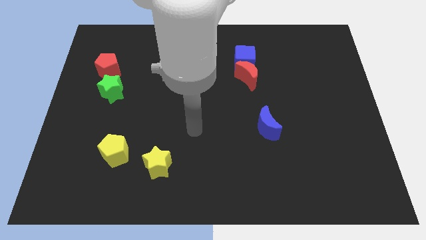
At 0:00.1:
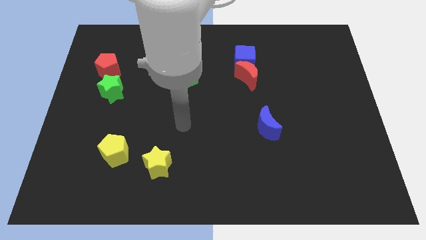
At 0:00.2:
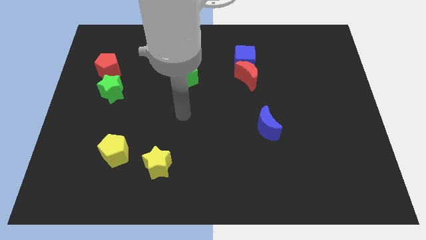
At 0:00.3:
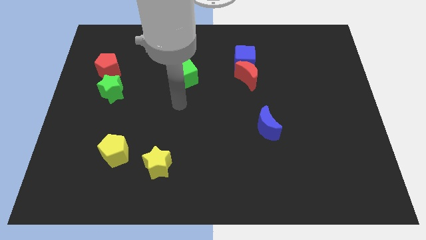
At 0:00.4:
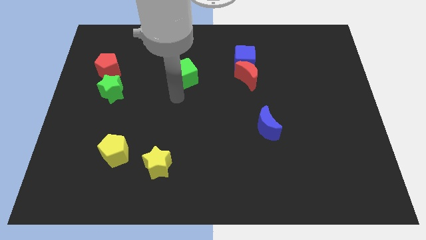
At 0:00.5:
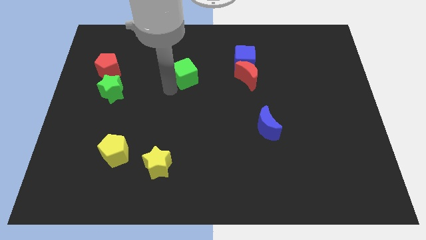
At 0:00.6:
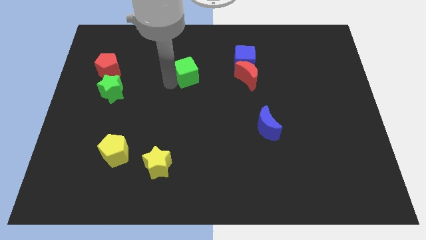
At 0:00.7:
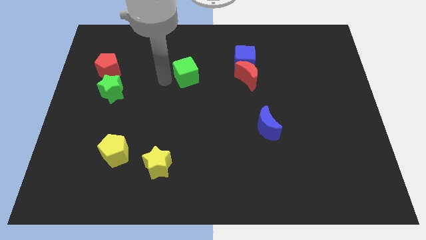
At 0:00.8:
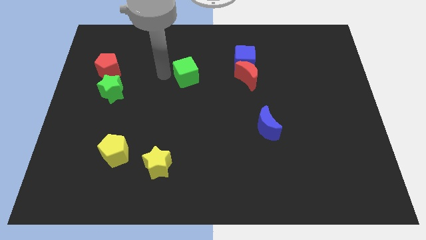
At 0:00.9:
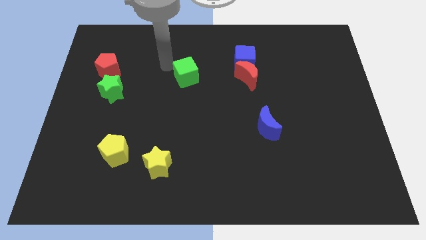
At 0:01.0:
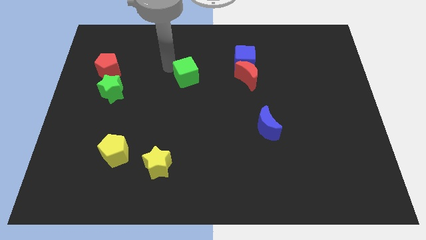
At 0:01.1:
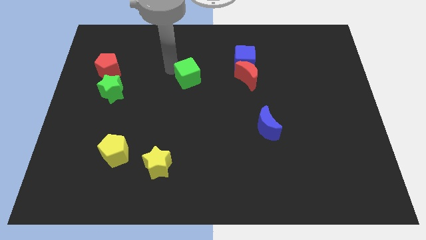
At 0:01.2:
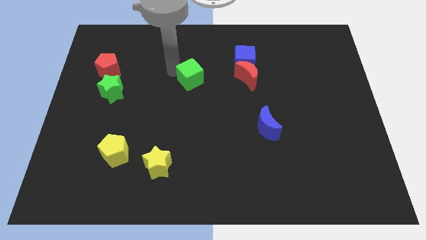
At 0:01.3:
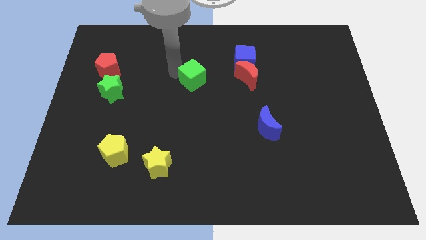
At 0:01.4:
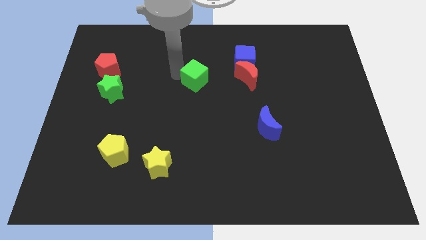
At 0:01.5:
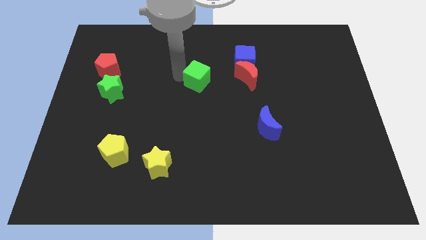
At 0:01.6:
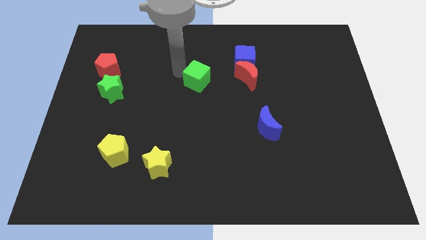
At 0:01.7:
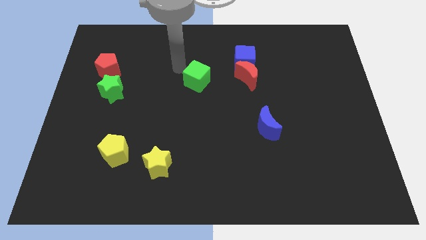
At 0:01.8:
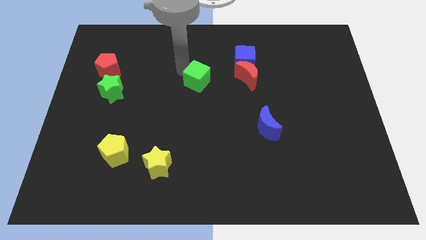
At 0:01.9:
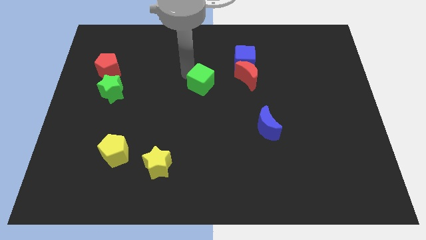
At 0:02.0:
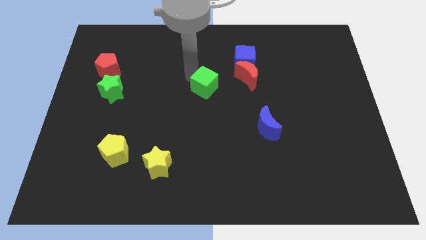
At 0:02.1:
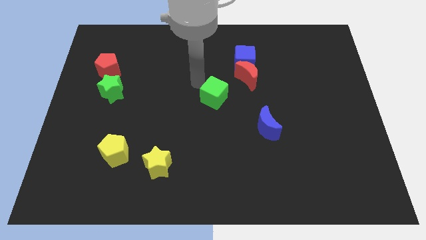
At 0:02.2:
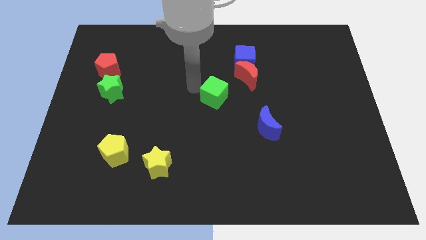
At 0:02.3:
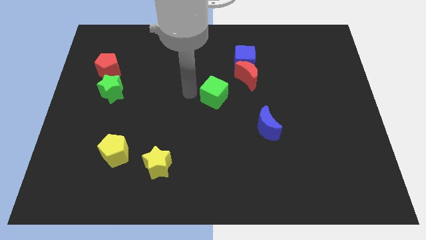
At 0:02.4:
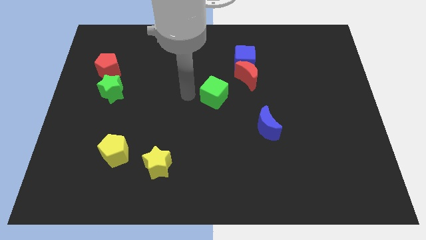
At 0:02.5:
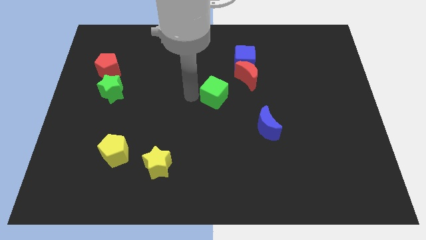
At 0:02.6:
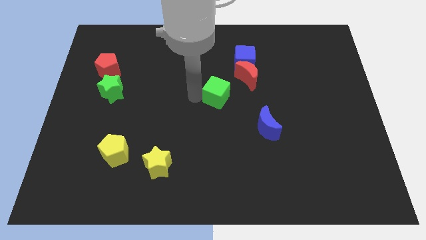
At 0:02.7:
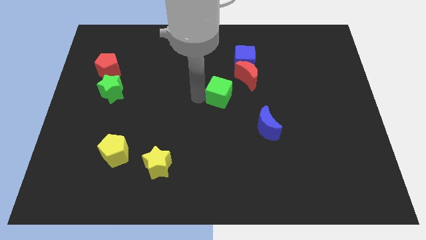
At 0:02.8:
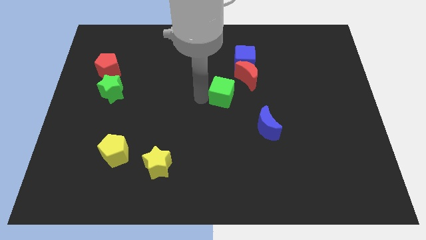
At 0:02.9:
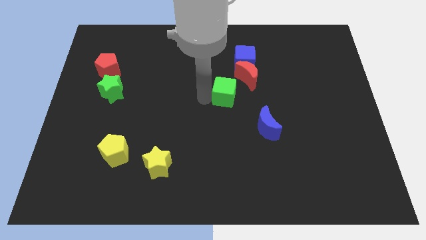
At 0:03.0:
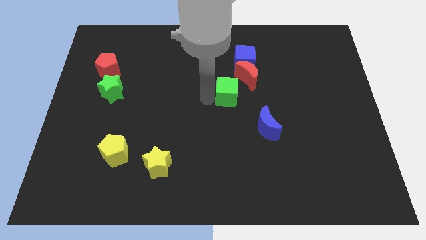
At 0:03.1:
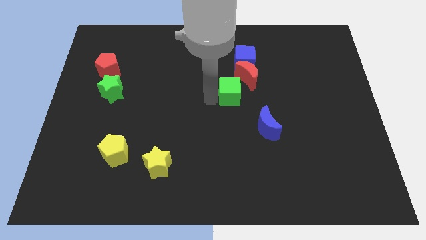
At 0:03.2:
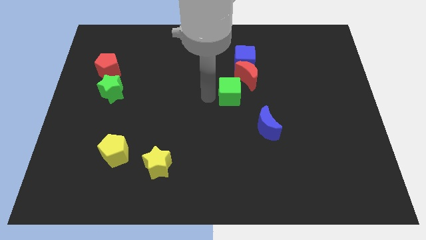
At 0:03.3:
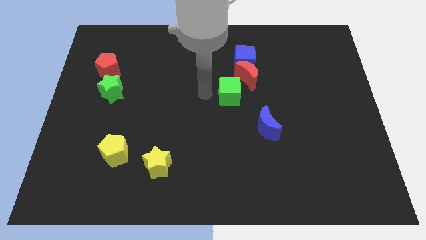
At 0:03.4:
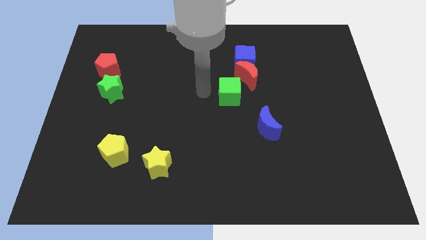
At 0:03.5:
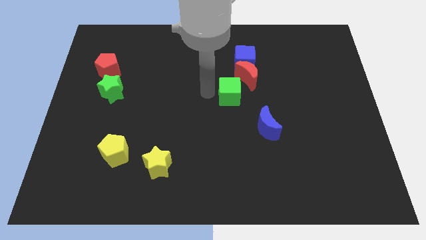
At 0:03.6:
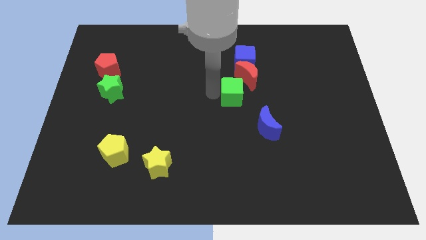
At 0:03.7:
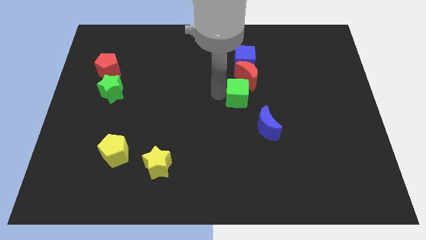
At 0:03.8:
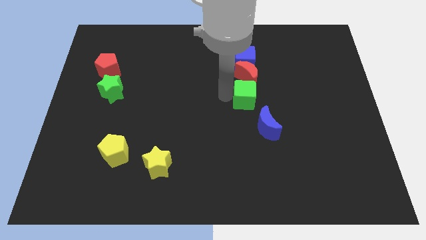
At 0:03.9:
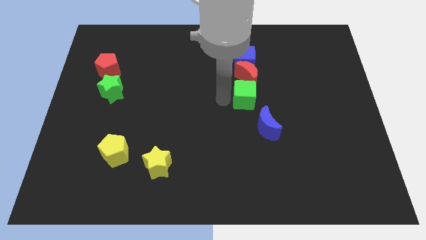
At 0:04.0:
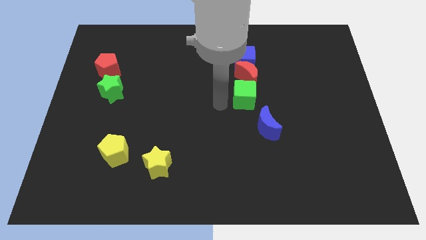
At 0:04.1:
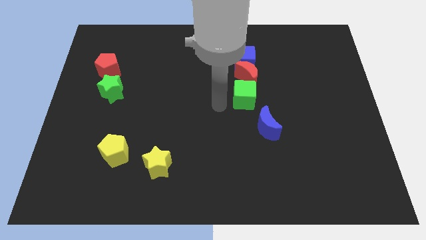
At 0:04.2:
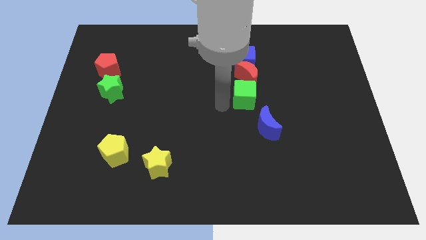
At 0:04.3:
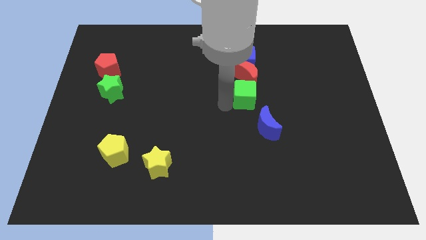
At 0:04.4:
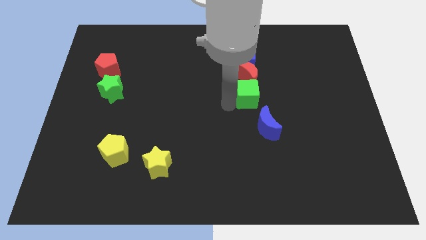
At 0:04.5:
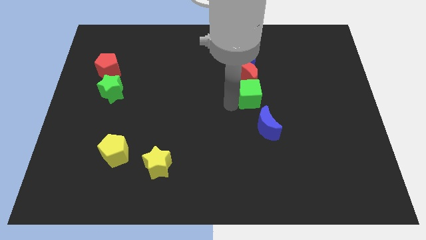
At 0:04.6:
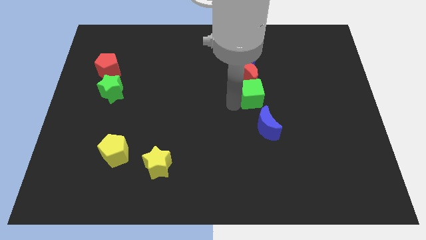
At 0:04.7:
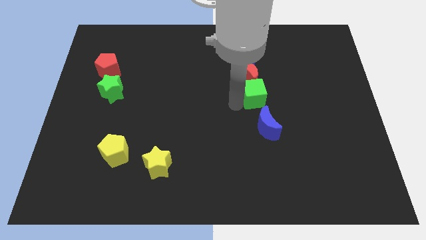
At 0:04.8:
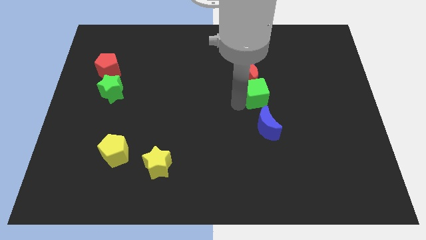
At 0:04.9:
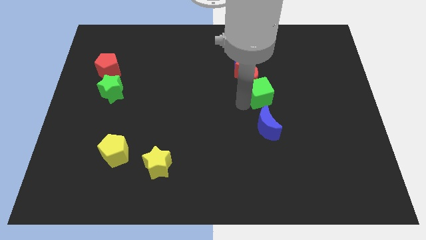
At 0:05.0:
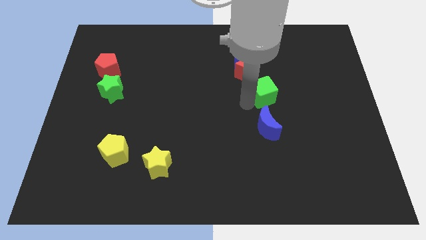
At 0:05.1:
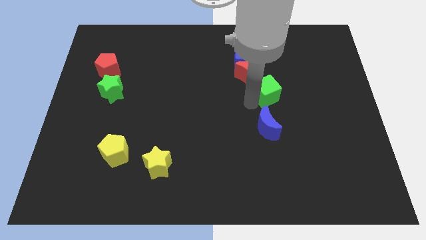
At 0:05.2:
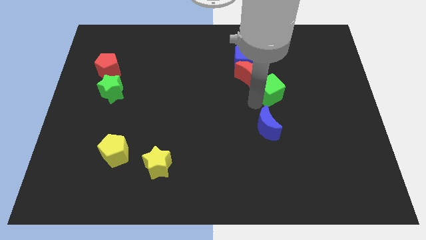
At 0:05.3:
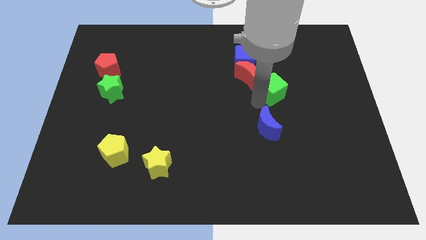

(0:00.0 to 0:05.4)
slide the green cube just right of the red moon

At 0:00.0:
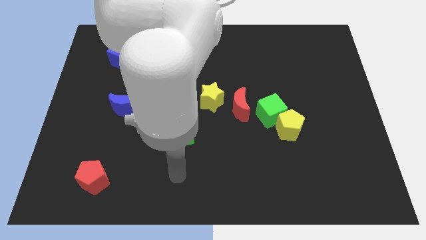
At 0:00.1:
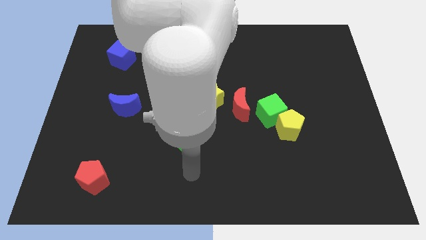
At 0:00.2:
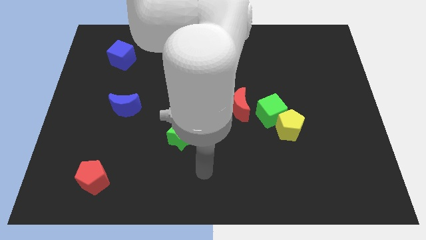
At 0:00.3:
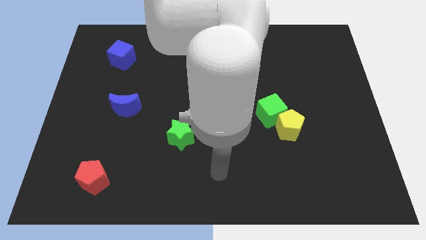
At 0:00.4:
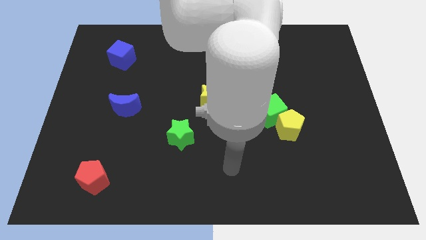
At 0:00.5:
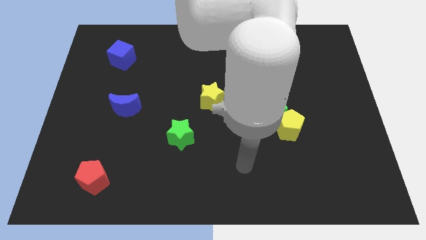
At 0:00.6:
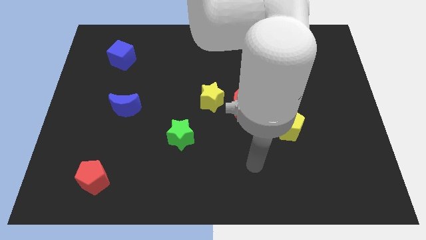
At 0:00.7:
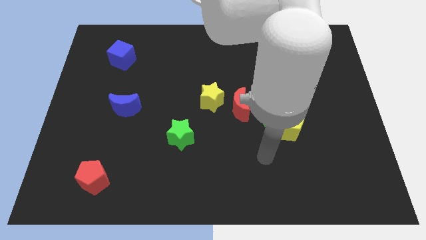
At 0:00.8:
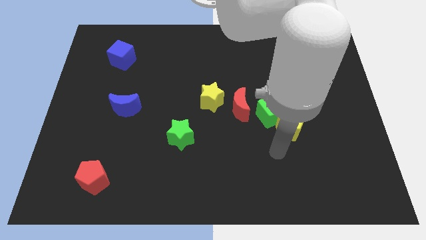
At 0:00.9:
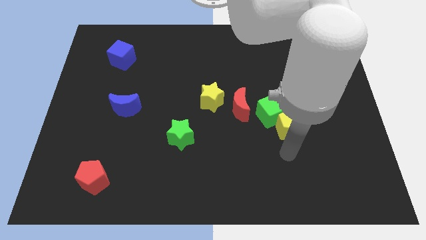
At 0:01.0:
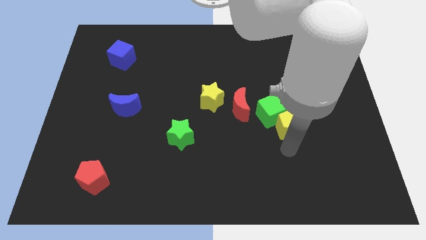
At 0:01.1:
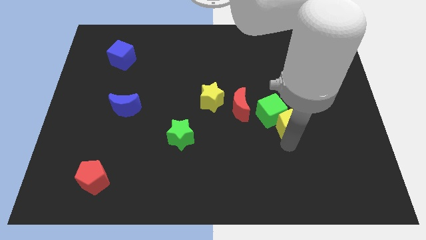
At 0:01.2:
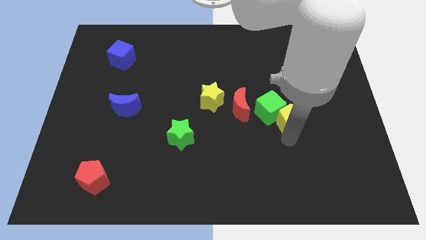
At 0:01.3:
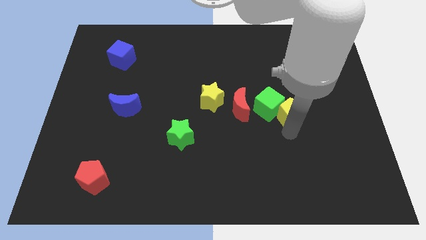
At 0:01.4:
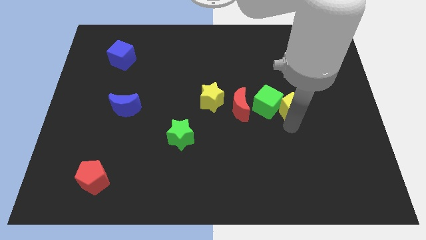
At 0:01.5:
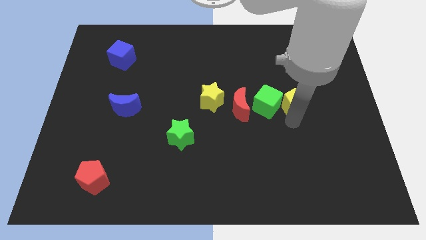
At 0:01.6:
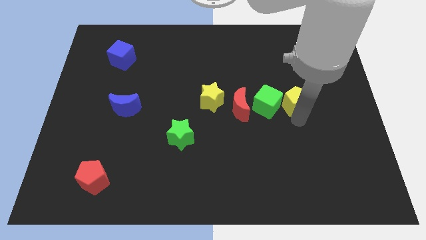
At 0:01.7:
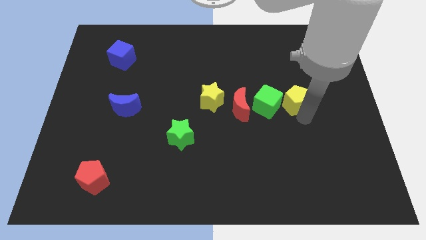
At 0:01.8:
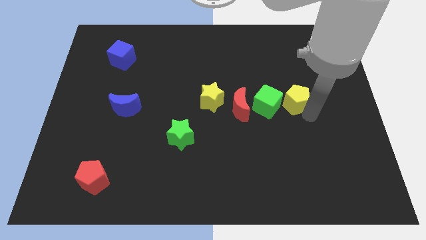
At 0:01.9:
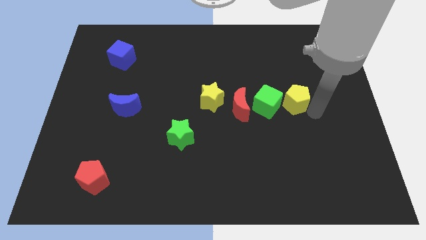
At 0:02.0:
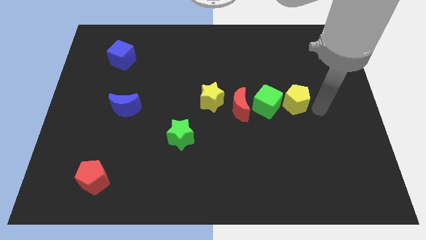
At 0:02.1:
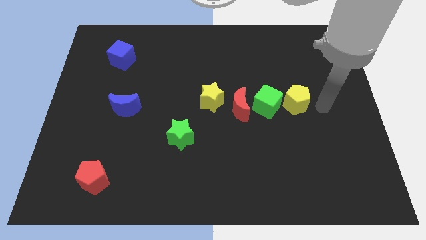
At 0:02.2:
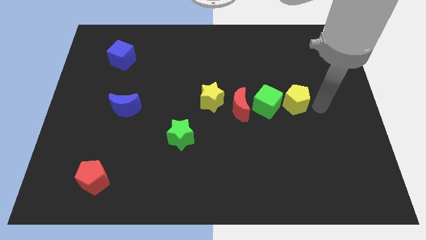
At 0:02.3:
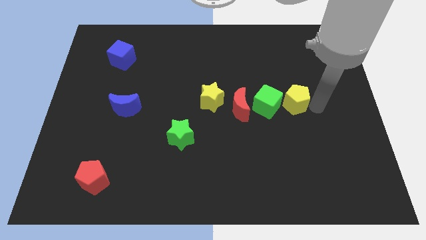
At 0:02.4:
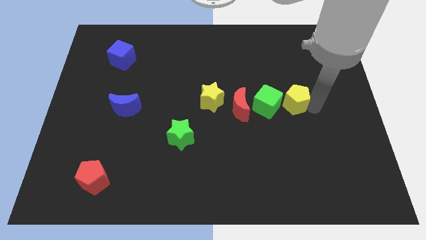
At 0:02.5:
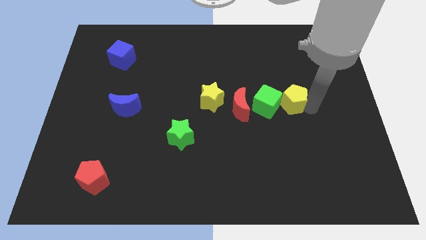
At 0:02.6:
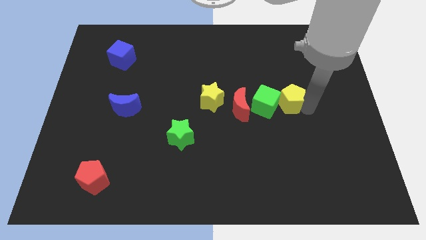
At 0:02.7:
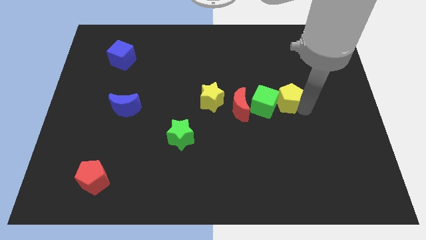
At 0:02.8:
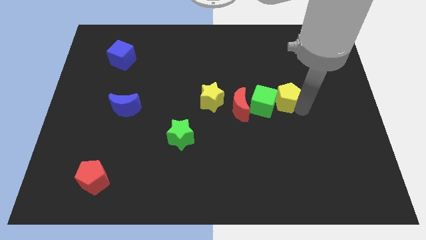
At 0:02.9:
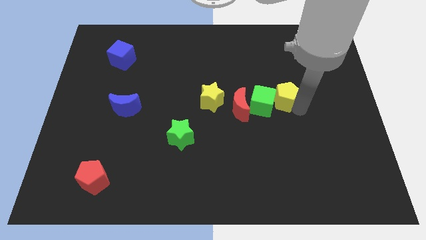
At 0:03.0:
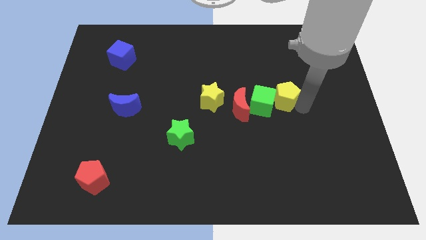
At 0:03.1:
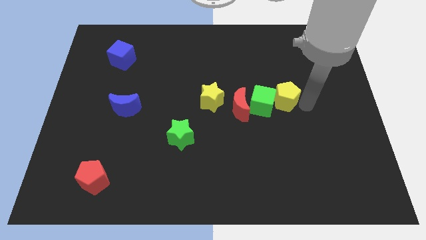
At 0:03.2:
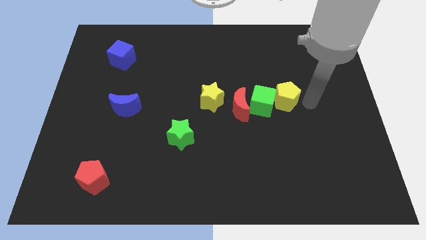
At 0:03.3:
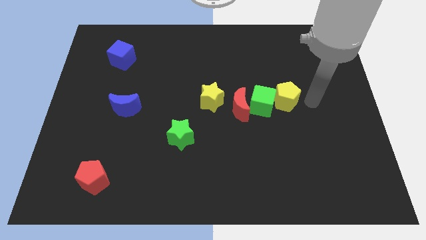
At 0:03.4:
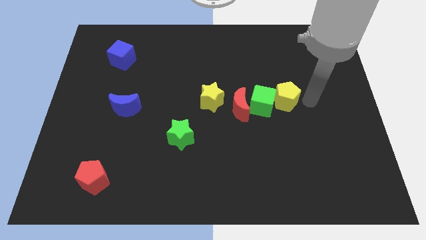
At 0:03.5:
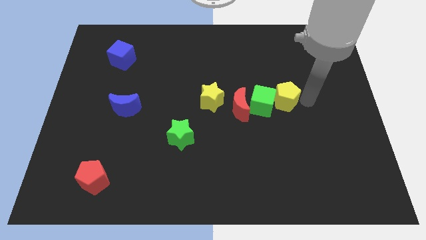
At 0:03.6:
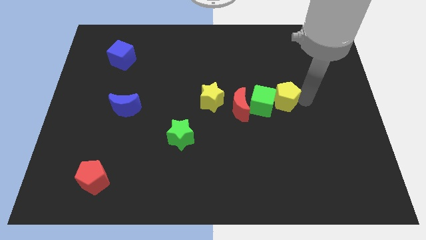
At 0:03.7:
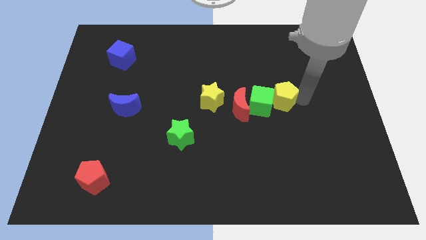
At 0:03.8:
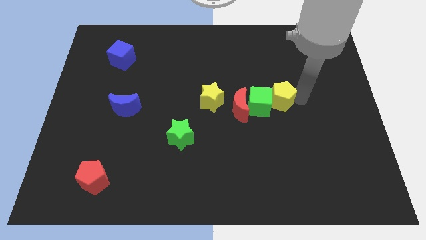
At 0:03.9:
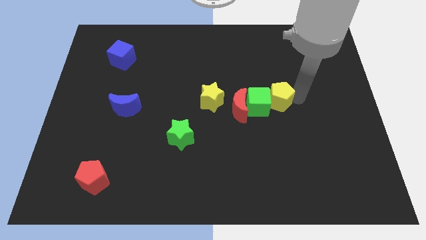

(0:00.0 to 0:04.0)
push the yellow pentagon just right of the yellow star
